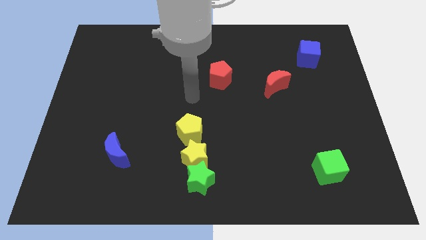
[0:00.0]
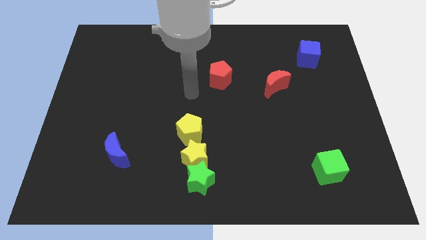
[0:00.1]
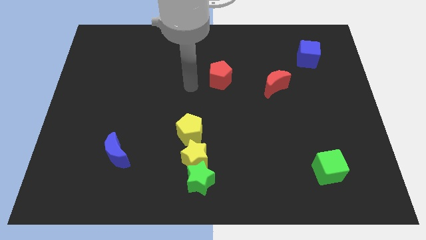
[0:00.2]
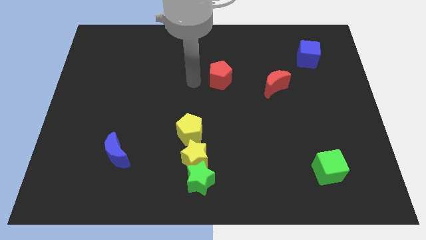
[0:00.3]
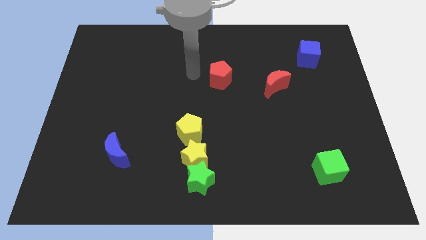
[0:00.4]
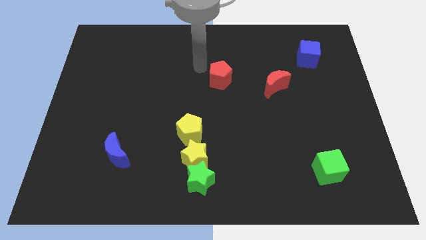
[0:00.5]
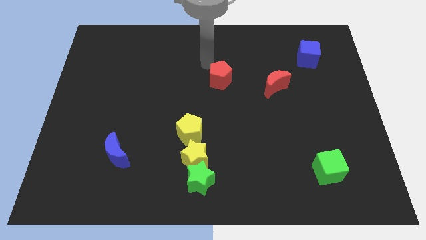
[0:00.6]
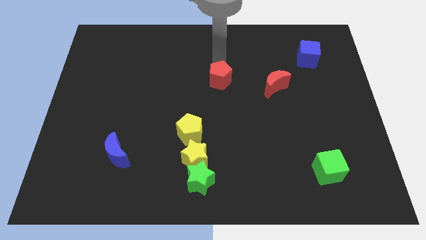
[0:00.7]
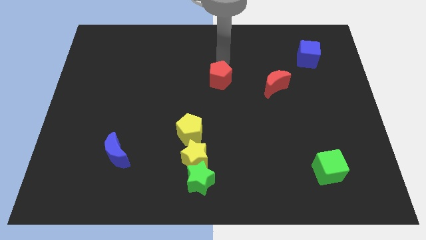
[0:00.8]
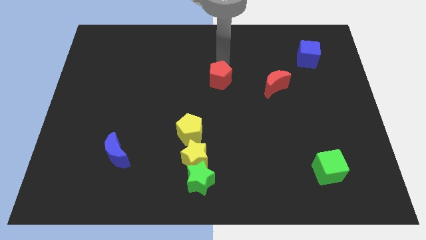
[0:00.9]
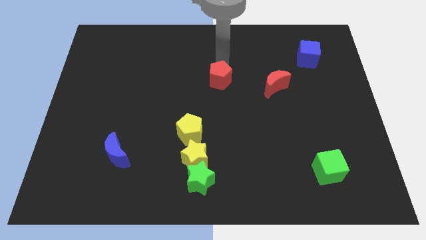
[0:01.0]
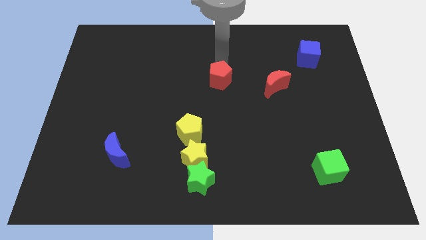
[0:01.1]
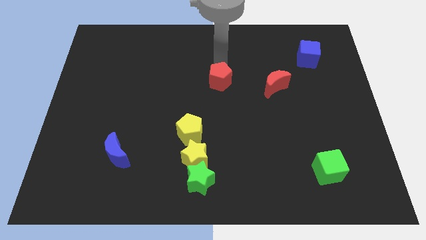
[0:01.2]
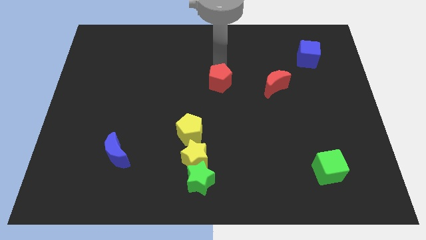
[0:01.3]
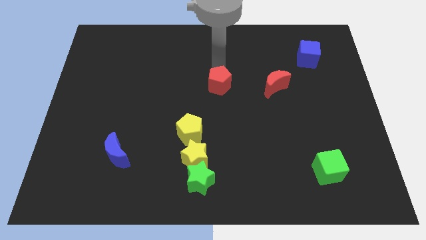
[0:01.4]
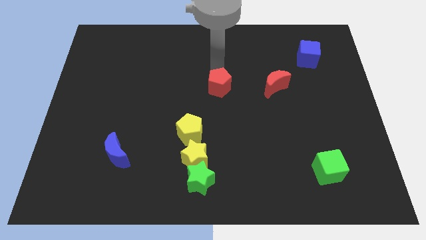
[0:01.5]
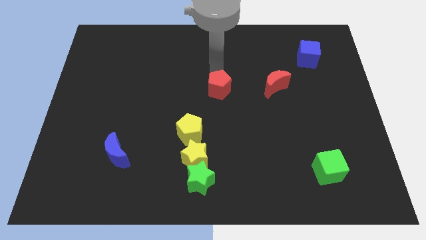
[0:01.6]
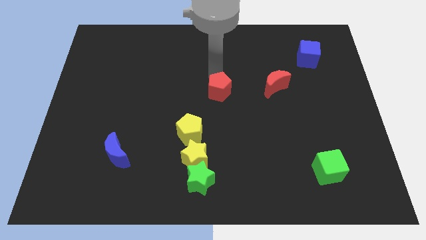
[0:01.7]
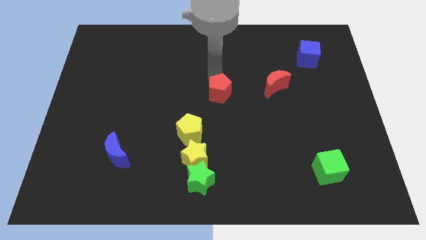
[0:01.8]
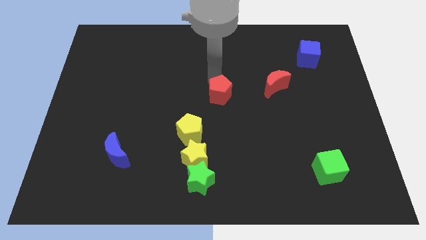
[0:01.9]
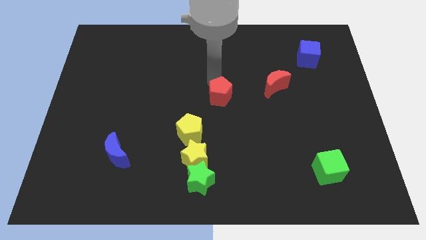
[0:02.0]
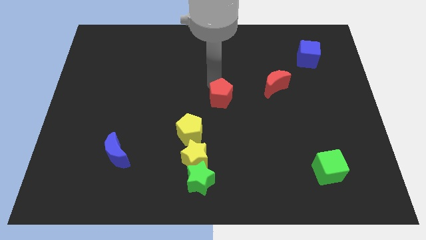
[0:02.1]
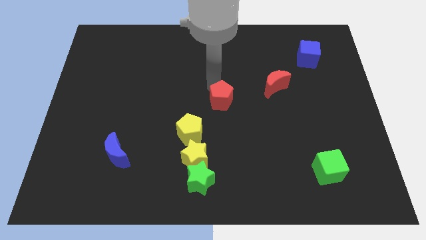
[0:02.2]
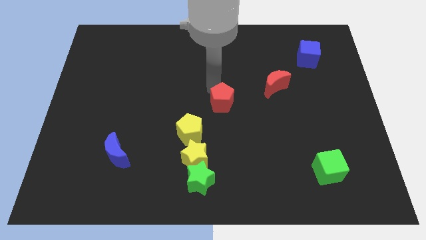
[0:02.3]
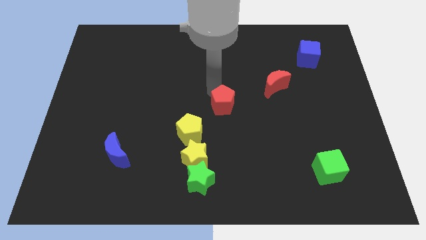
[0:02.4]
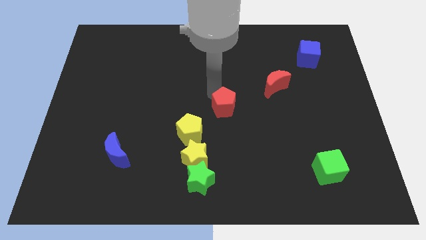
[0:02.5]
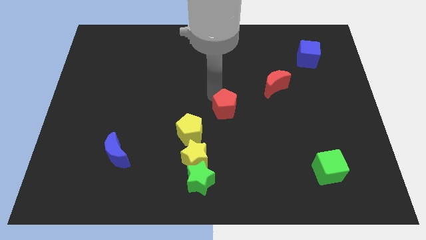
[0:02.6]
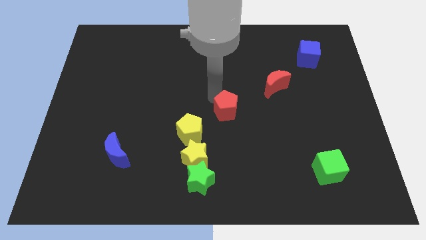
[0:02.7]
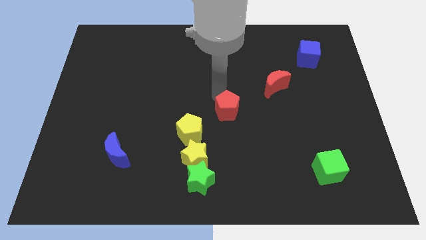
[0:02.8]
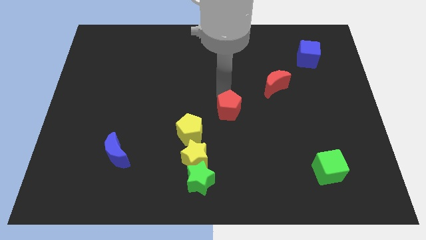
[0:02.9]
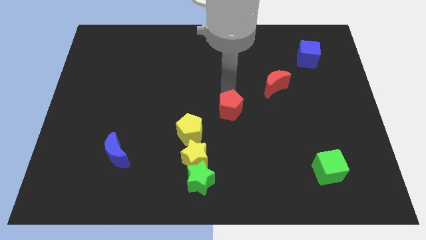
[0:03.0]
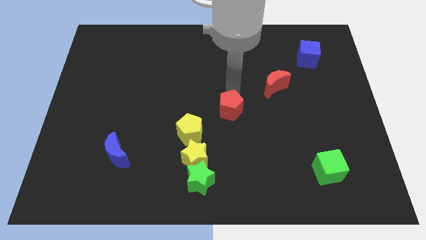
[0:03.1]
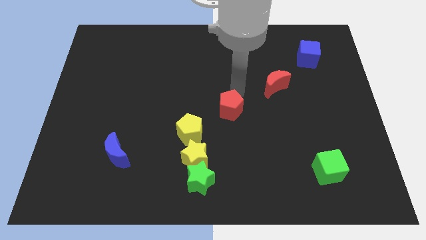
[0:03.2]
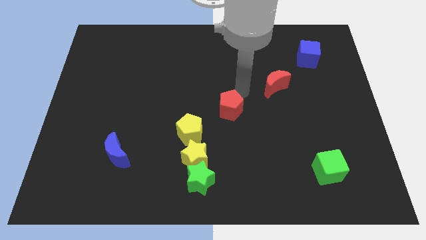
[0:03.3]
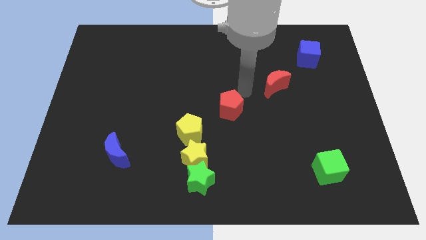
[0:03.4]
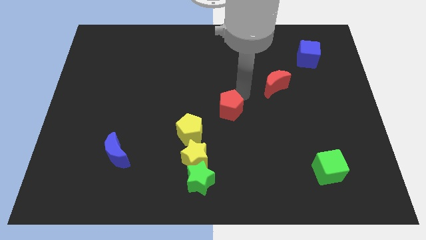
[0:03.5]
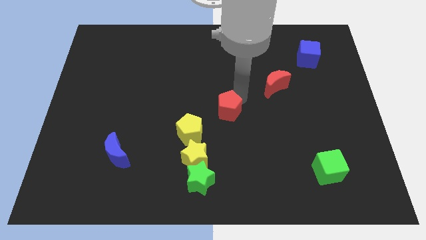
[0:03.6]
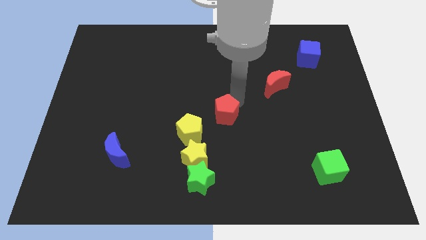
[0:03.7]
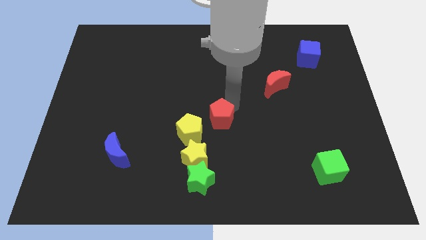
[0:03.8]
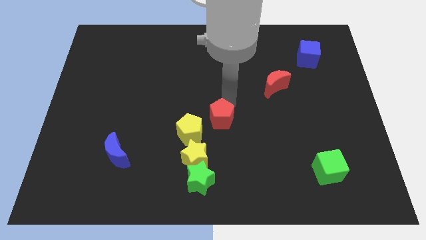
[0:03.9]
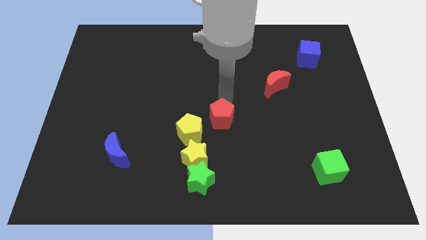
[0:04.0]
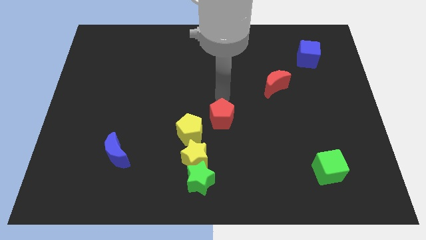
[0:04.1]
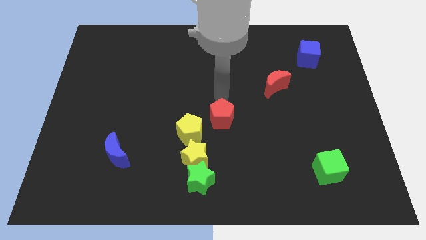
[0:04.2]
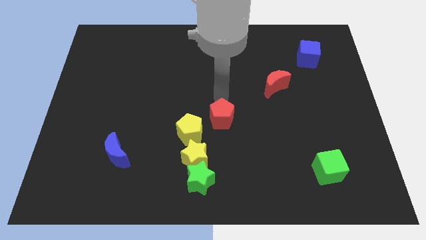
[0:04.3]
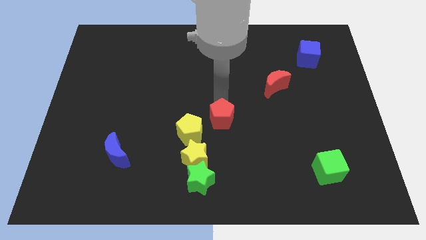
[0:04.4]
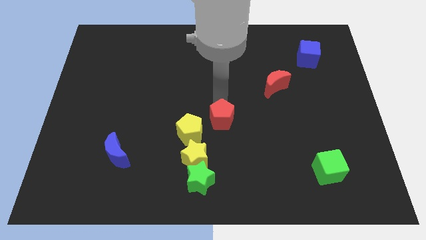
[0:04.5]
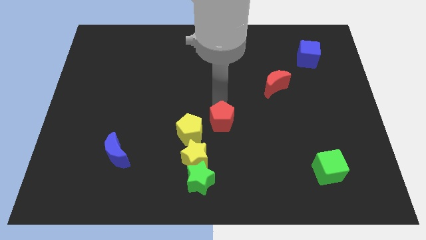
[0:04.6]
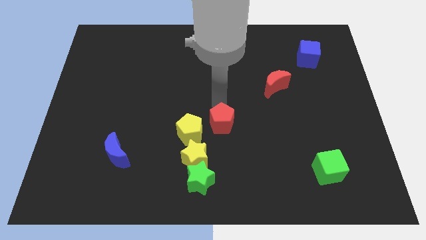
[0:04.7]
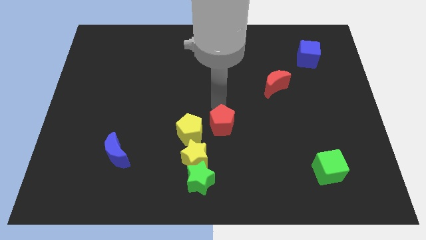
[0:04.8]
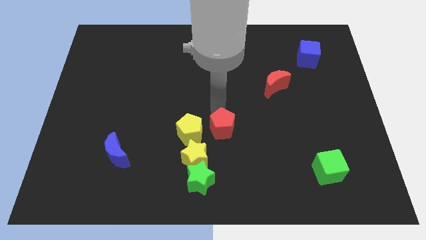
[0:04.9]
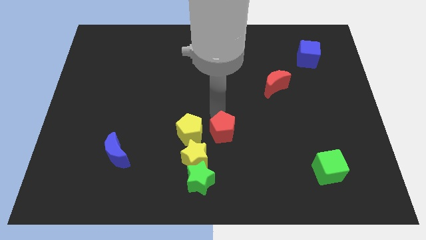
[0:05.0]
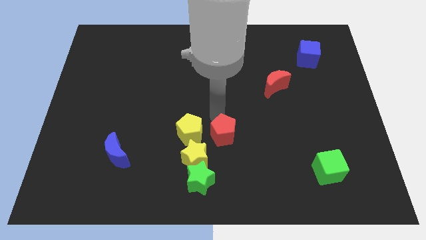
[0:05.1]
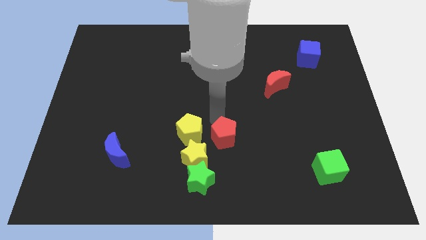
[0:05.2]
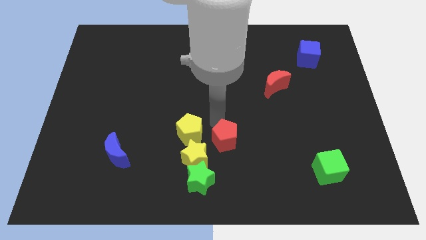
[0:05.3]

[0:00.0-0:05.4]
put the red pentagon to the top right side of the green star

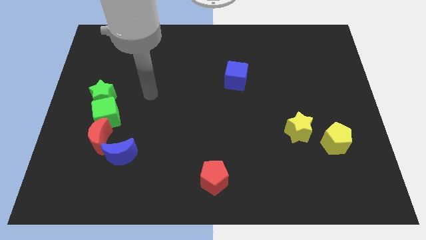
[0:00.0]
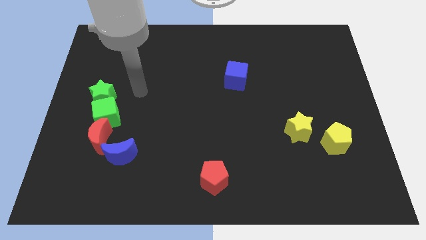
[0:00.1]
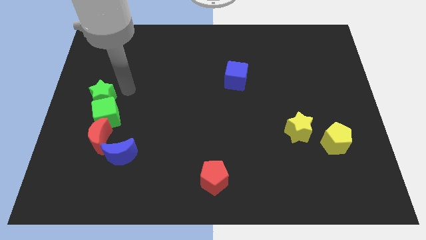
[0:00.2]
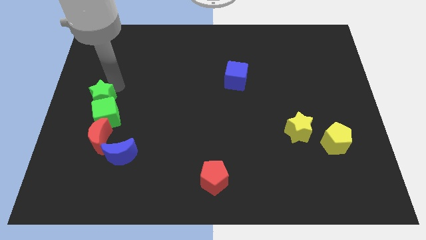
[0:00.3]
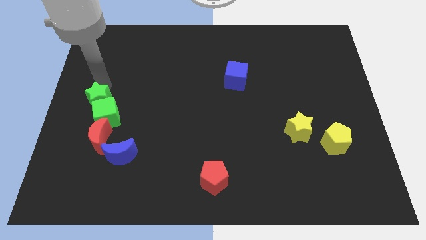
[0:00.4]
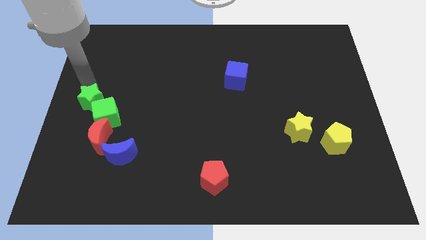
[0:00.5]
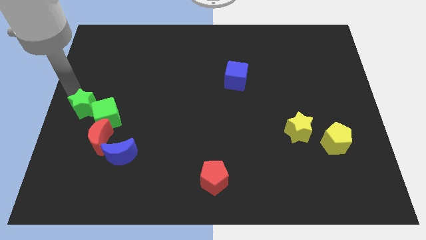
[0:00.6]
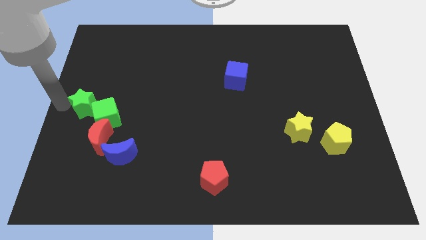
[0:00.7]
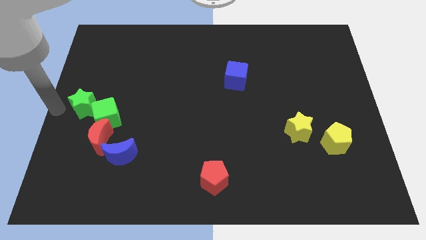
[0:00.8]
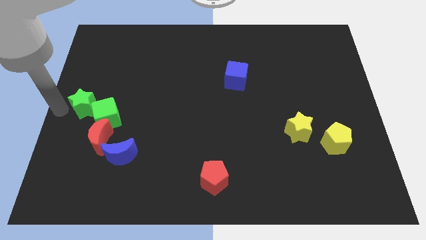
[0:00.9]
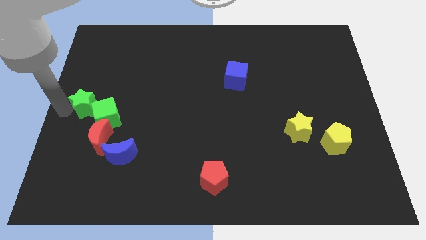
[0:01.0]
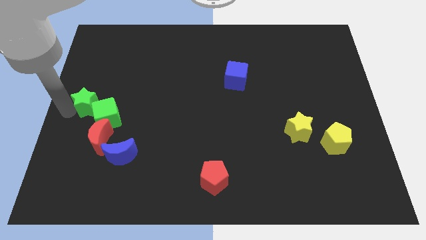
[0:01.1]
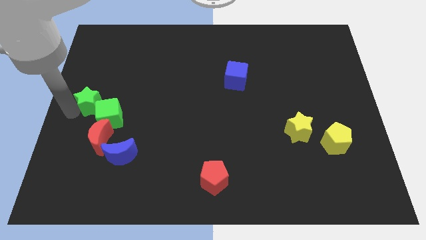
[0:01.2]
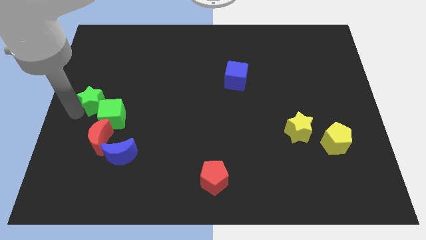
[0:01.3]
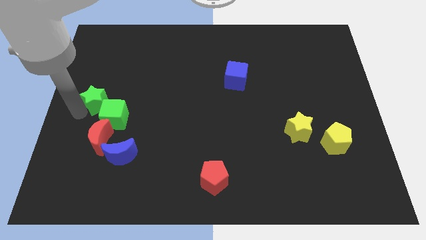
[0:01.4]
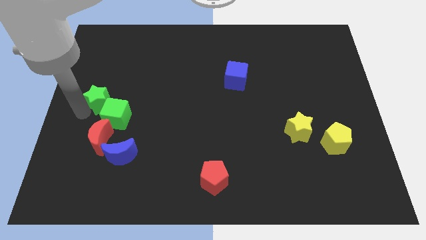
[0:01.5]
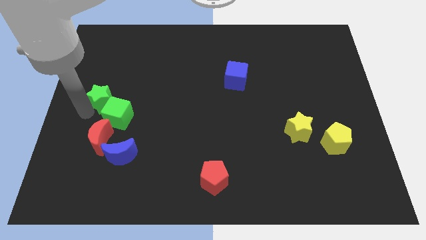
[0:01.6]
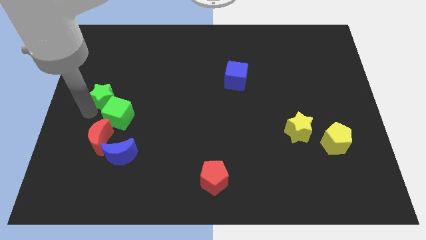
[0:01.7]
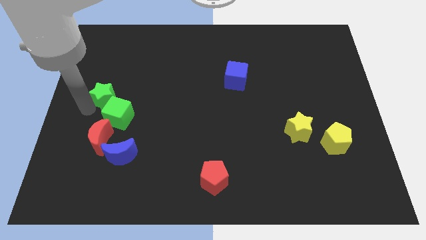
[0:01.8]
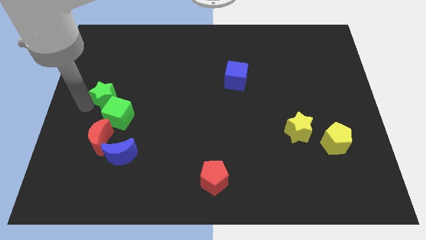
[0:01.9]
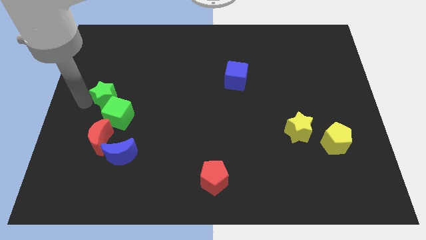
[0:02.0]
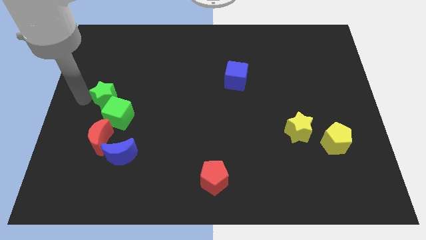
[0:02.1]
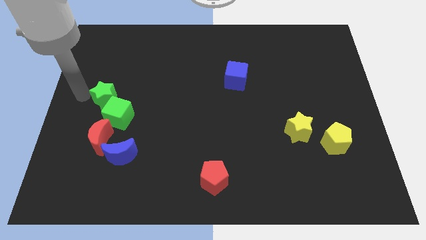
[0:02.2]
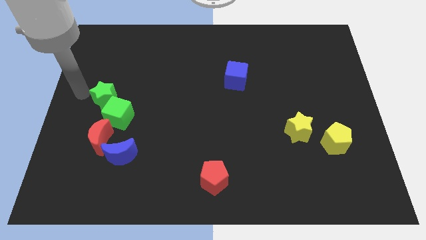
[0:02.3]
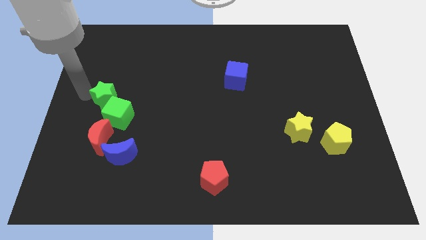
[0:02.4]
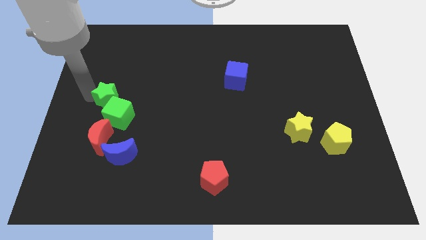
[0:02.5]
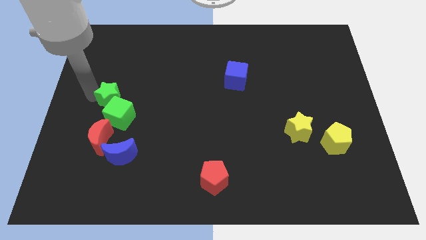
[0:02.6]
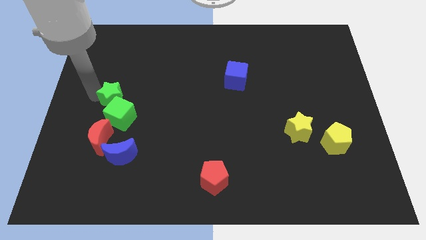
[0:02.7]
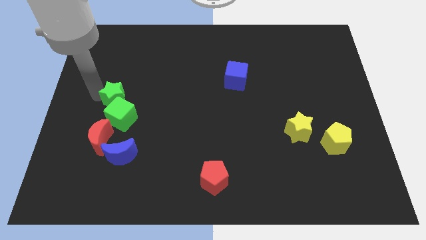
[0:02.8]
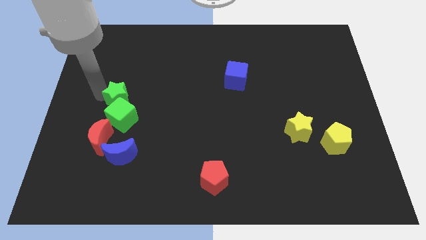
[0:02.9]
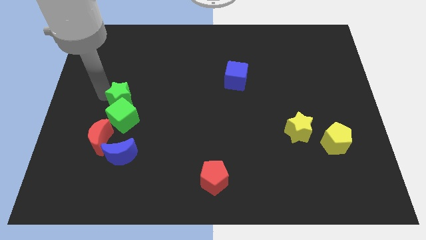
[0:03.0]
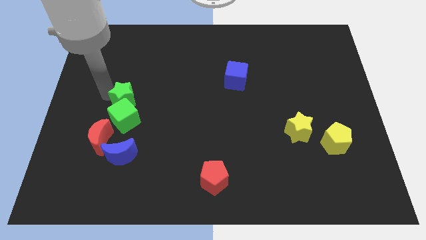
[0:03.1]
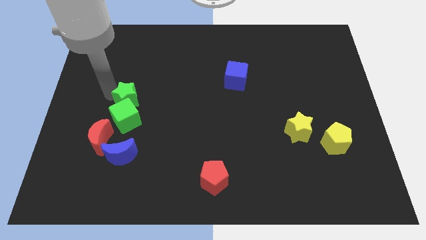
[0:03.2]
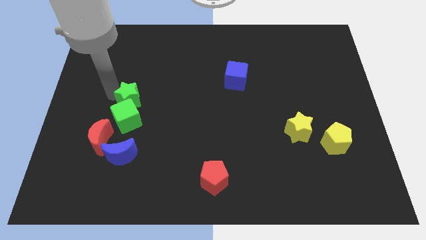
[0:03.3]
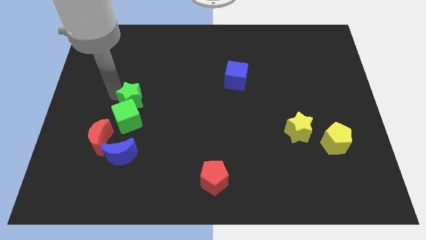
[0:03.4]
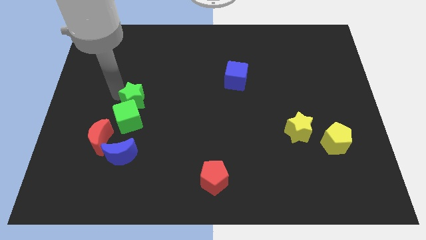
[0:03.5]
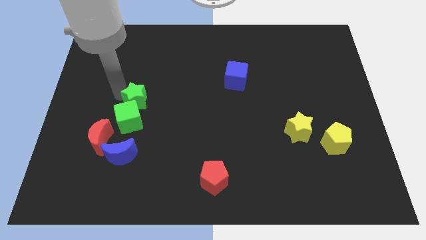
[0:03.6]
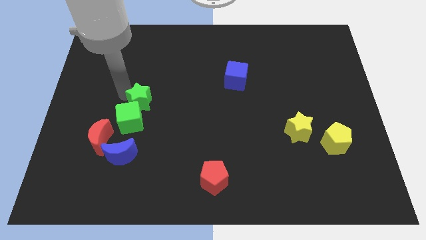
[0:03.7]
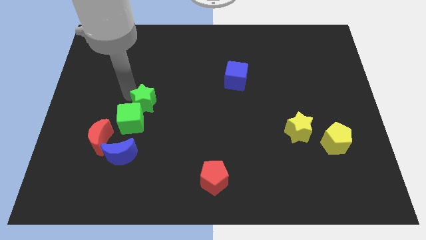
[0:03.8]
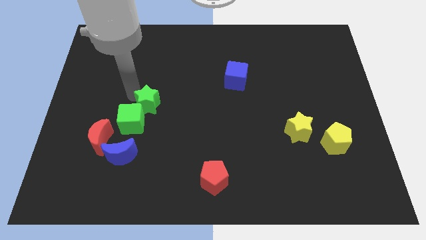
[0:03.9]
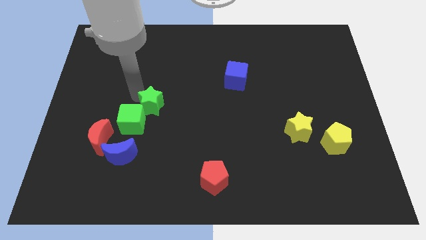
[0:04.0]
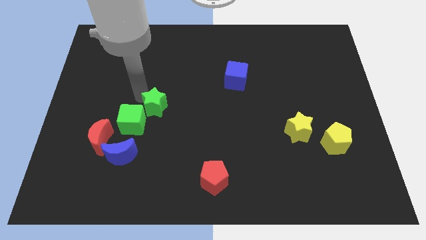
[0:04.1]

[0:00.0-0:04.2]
move the green star to the right side of the green cube
